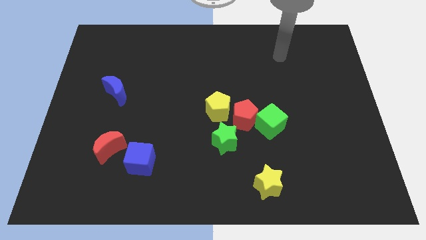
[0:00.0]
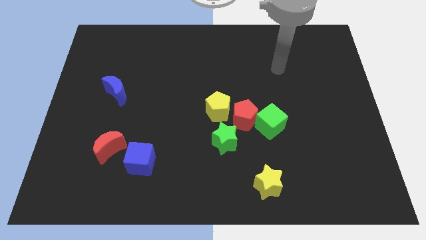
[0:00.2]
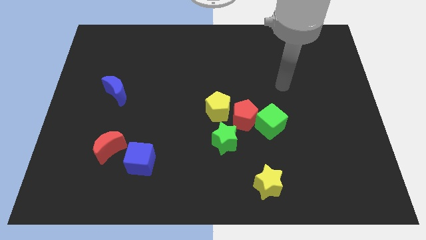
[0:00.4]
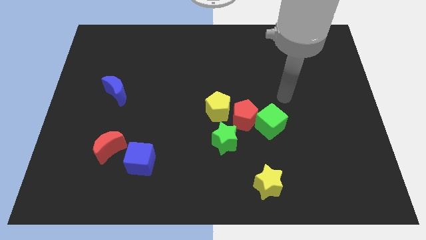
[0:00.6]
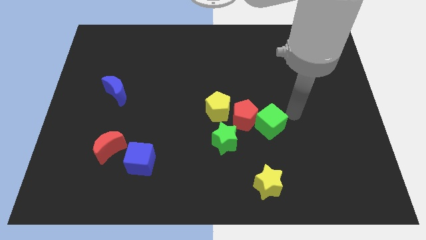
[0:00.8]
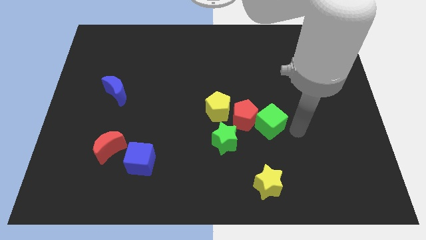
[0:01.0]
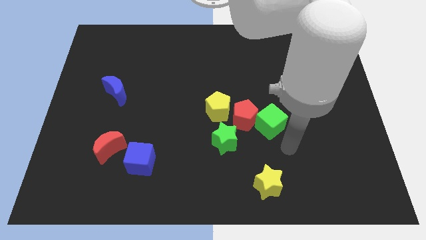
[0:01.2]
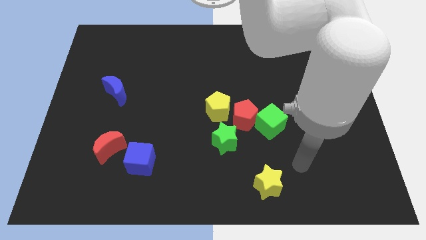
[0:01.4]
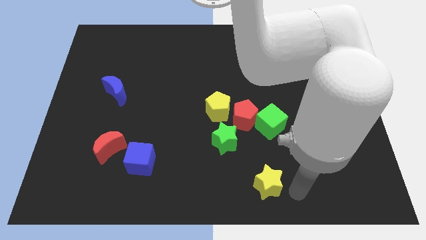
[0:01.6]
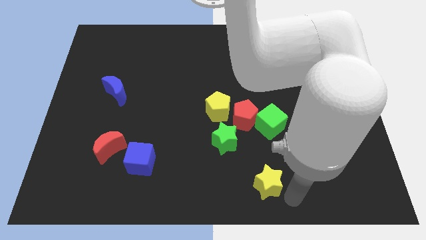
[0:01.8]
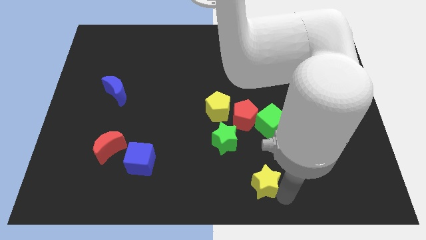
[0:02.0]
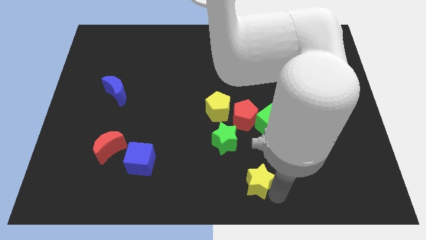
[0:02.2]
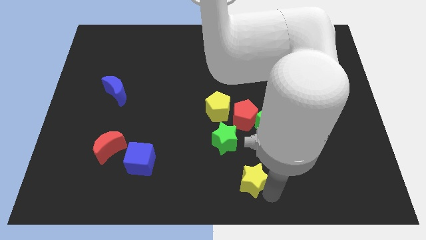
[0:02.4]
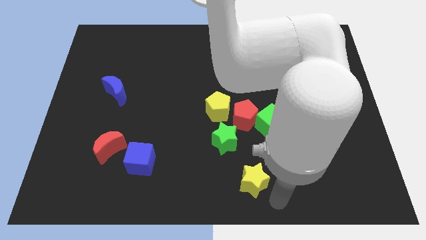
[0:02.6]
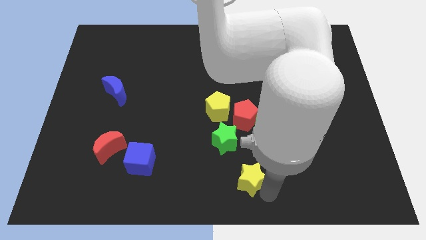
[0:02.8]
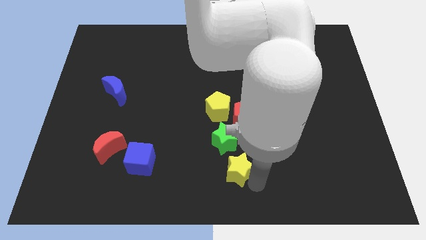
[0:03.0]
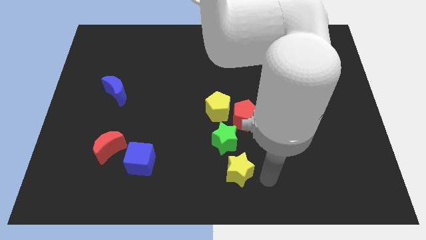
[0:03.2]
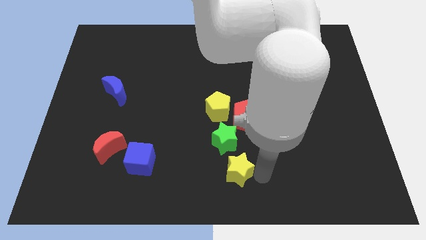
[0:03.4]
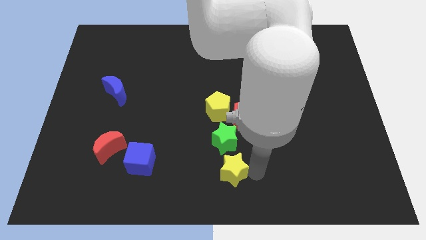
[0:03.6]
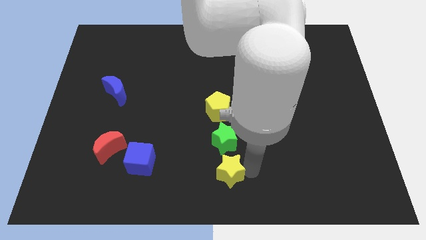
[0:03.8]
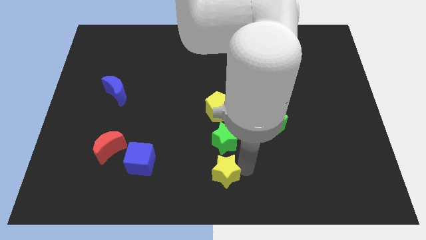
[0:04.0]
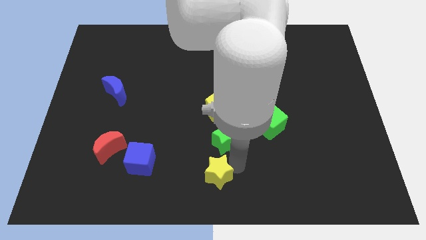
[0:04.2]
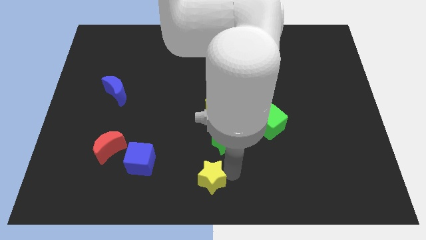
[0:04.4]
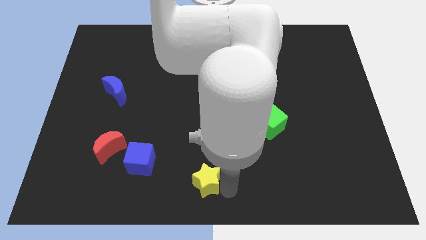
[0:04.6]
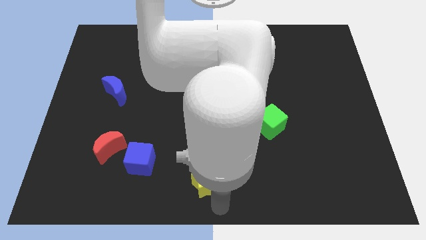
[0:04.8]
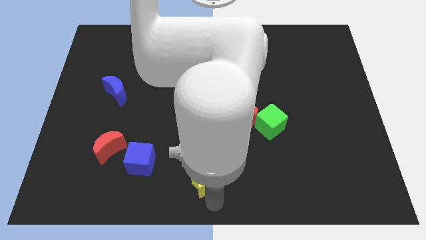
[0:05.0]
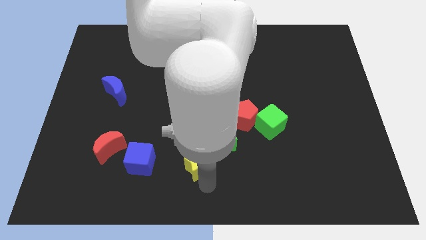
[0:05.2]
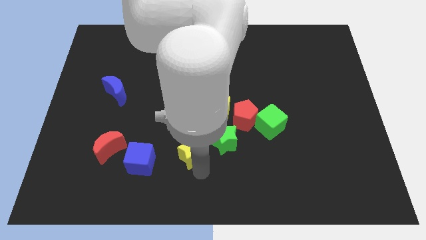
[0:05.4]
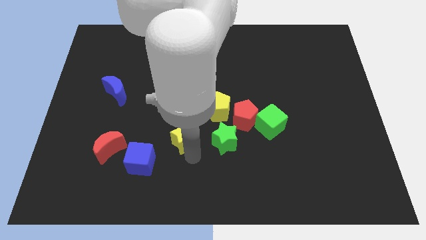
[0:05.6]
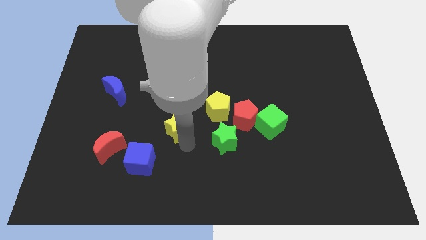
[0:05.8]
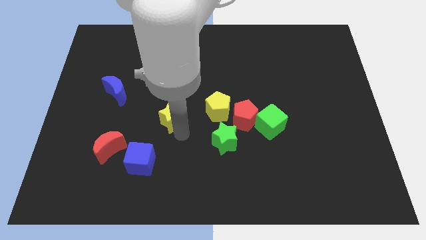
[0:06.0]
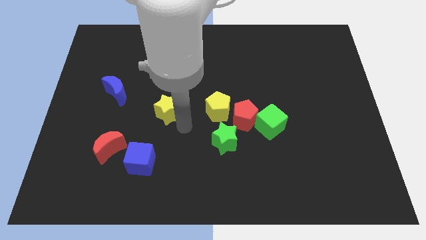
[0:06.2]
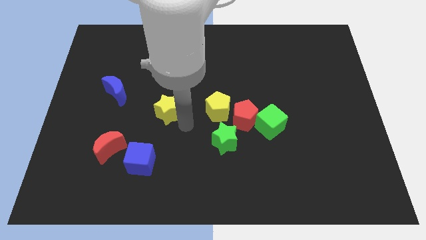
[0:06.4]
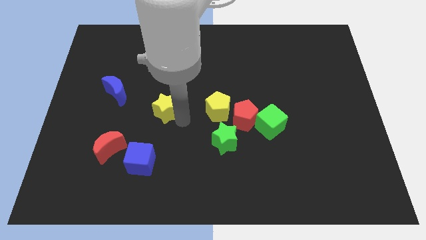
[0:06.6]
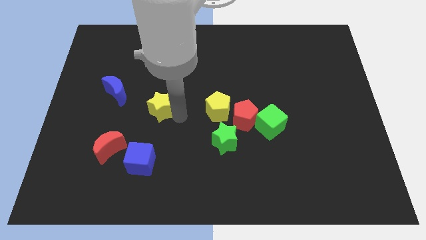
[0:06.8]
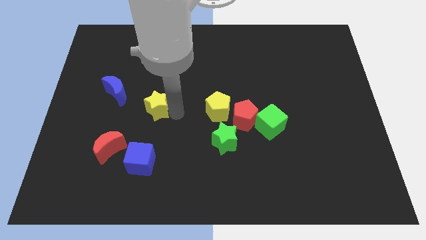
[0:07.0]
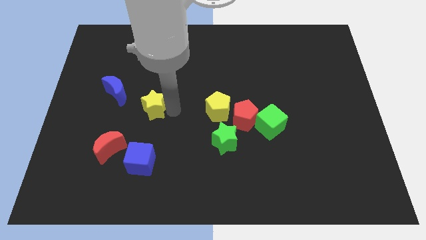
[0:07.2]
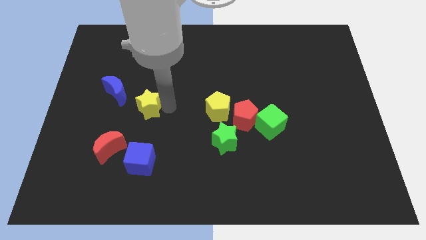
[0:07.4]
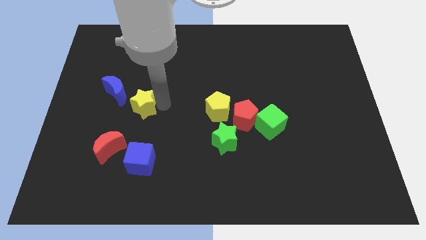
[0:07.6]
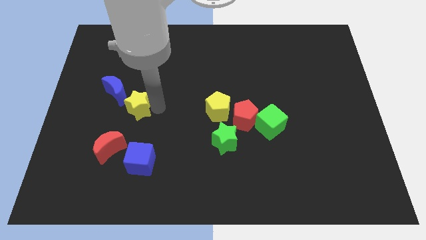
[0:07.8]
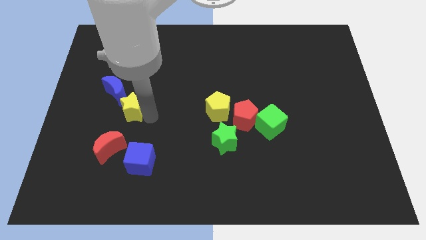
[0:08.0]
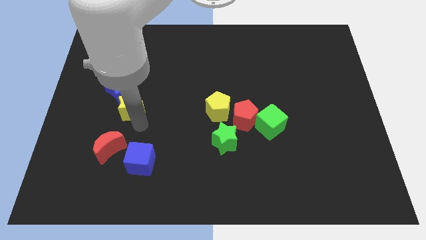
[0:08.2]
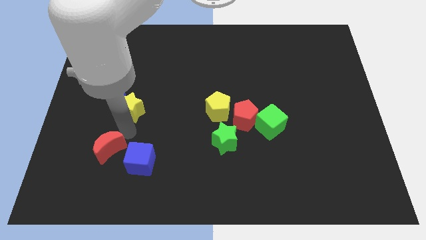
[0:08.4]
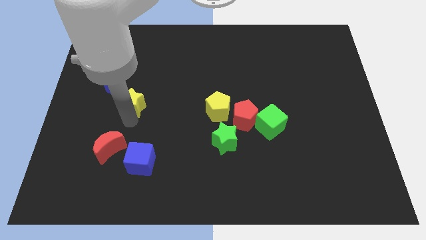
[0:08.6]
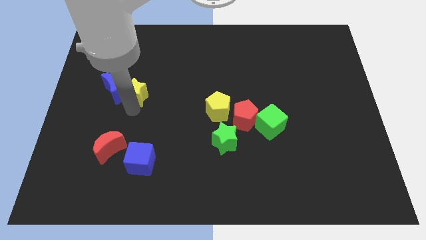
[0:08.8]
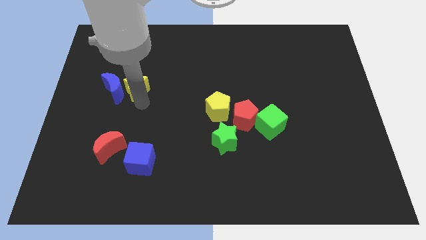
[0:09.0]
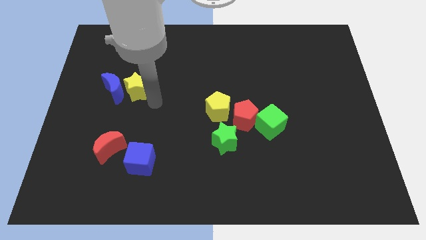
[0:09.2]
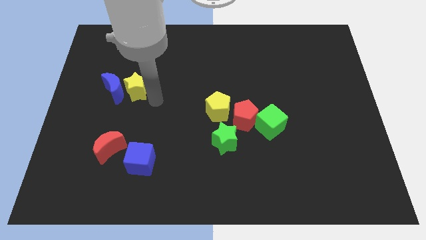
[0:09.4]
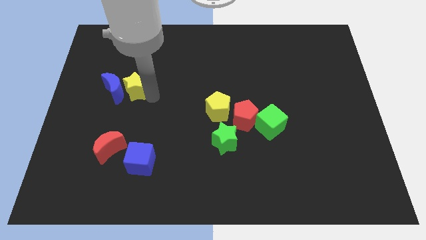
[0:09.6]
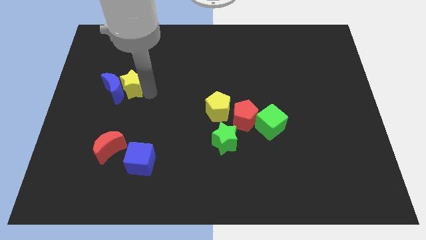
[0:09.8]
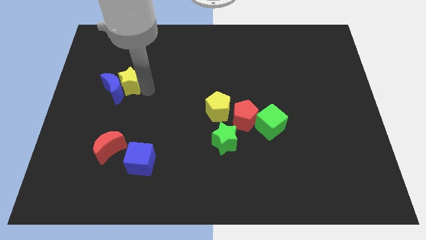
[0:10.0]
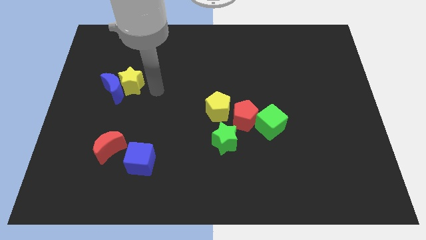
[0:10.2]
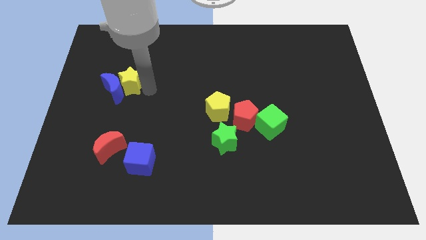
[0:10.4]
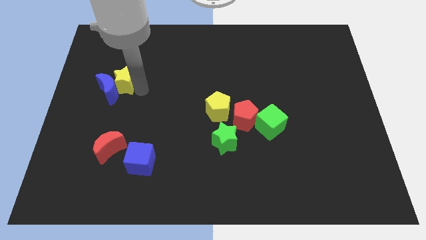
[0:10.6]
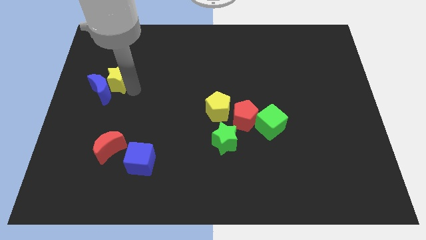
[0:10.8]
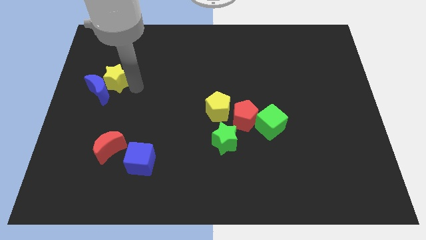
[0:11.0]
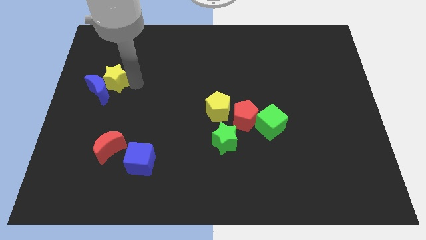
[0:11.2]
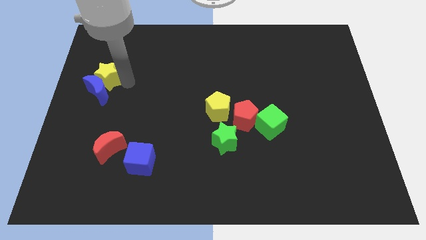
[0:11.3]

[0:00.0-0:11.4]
slide the yellow star diagonally up and to the left of the blue moon
